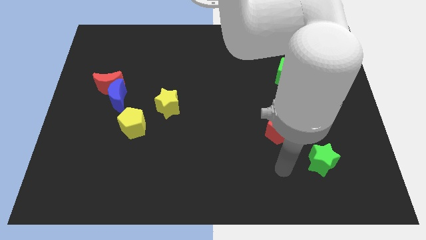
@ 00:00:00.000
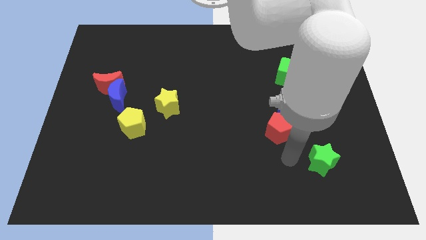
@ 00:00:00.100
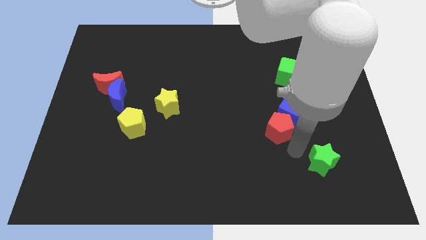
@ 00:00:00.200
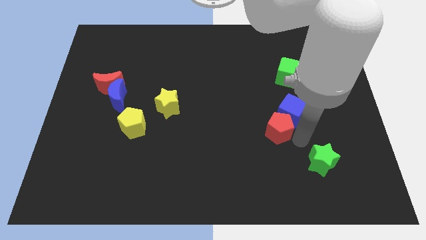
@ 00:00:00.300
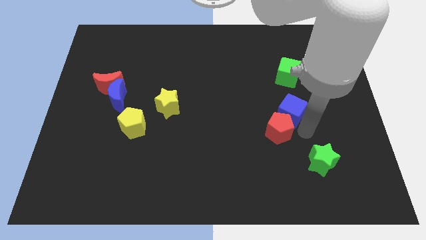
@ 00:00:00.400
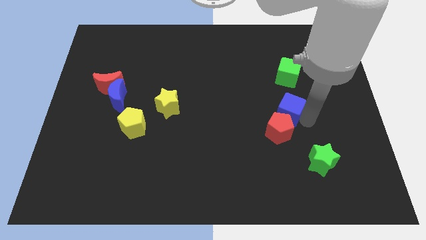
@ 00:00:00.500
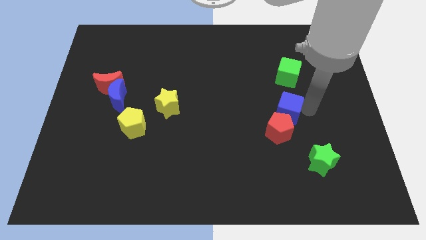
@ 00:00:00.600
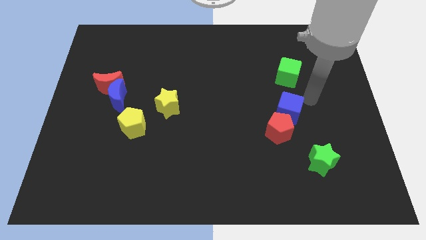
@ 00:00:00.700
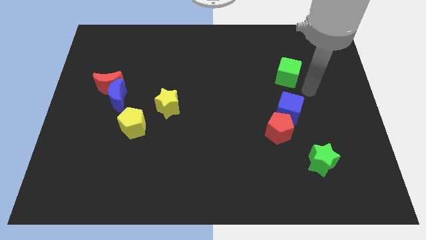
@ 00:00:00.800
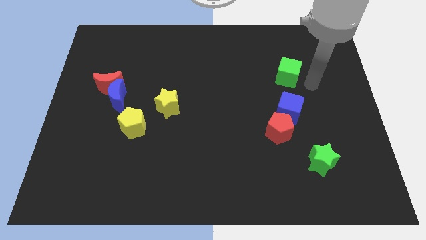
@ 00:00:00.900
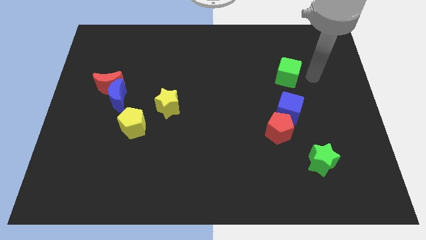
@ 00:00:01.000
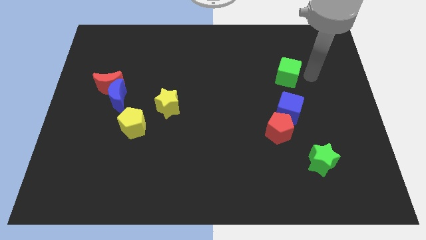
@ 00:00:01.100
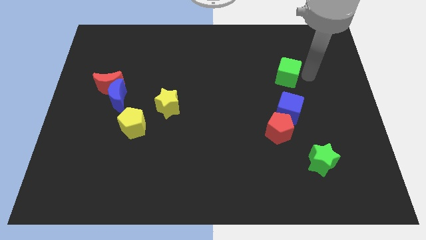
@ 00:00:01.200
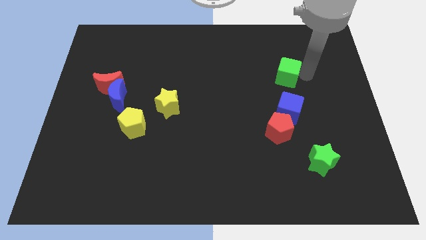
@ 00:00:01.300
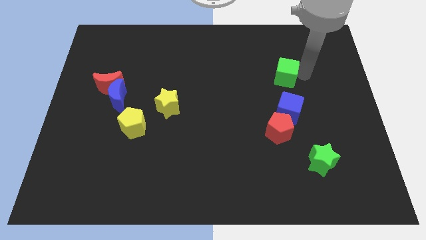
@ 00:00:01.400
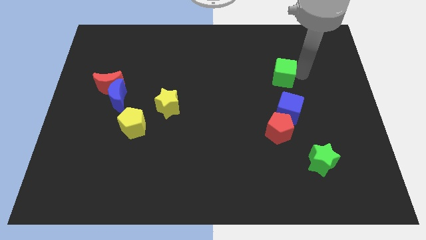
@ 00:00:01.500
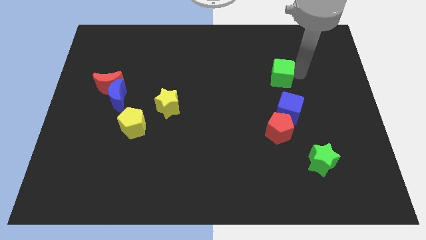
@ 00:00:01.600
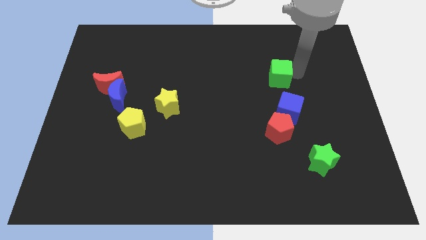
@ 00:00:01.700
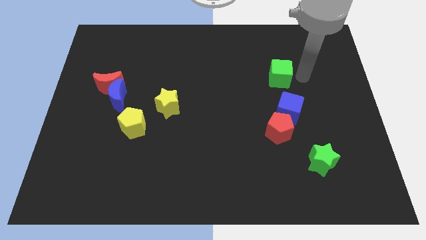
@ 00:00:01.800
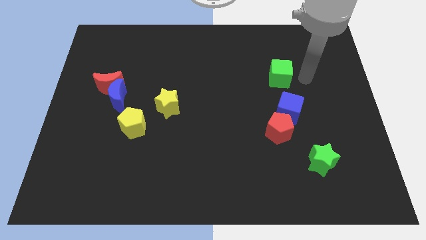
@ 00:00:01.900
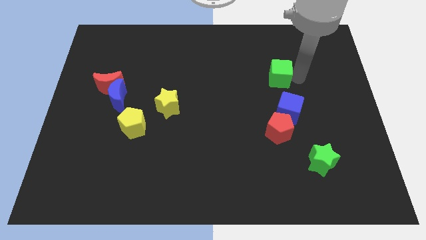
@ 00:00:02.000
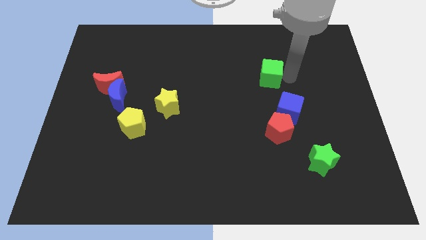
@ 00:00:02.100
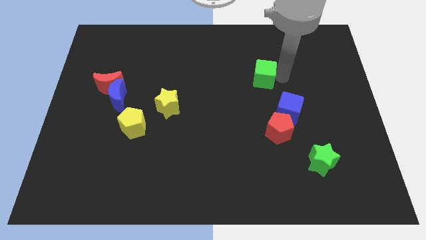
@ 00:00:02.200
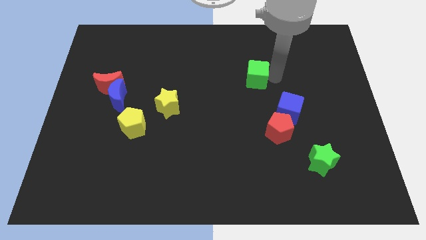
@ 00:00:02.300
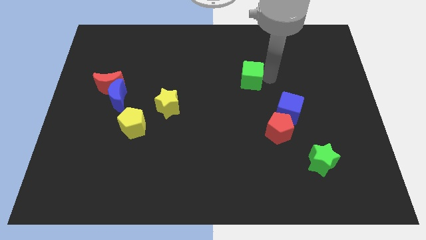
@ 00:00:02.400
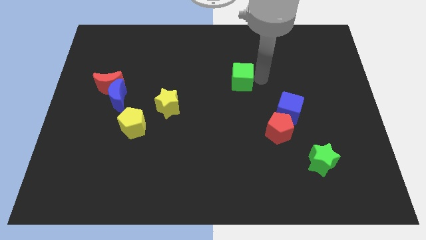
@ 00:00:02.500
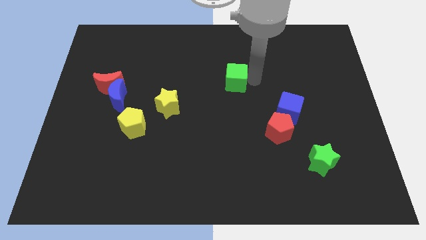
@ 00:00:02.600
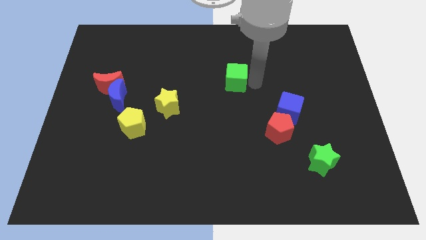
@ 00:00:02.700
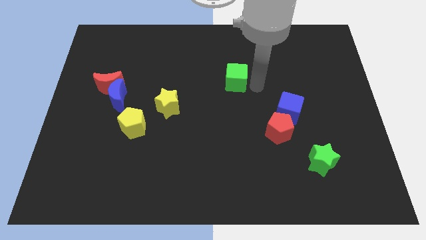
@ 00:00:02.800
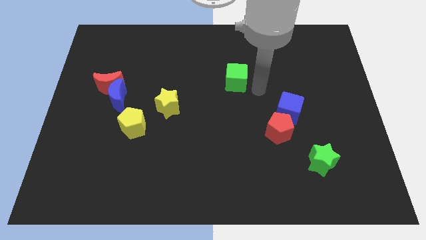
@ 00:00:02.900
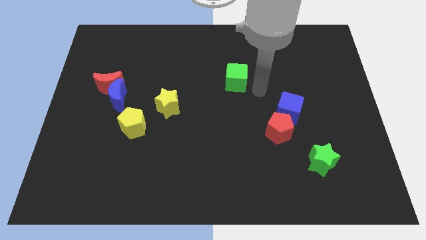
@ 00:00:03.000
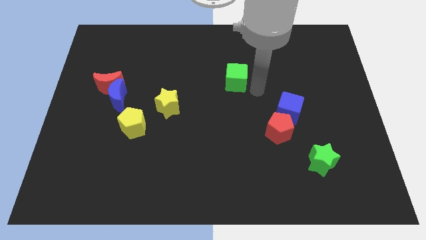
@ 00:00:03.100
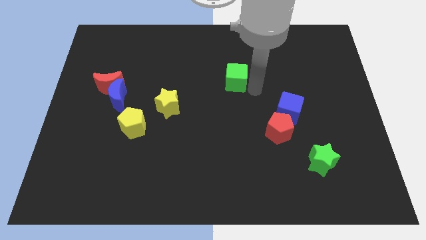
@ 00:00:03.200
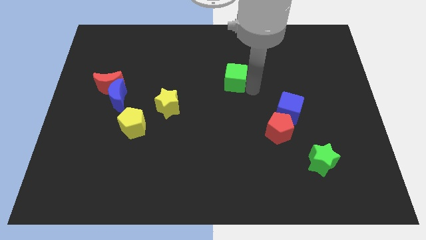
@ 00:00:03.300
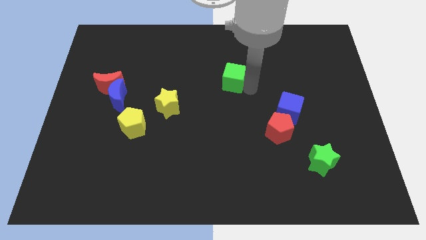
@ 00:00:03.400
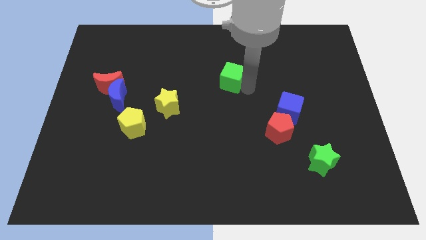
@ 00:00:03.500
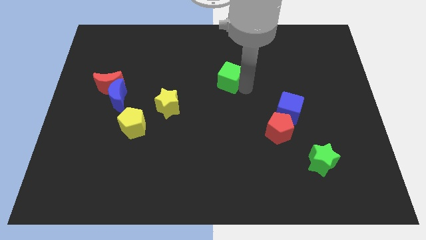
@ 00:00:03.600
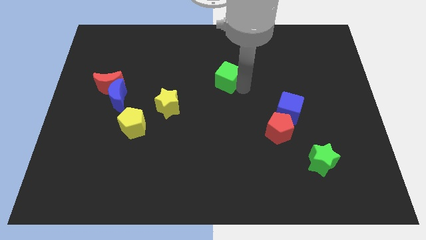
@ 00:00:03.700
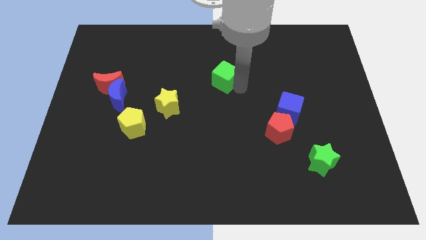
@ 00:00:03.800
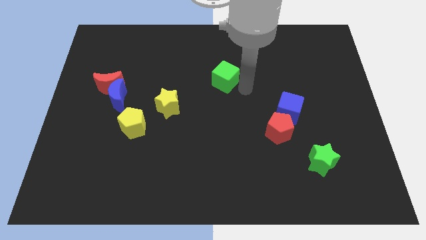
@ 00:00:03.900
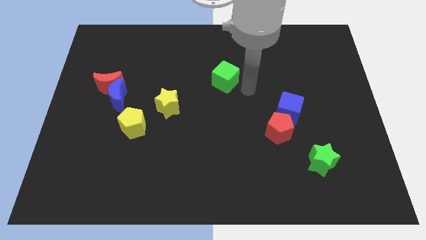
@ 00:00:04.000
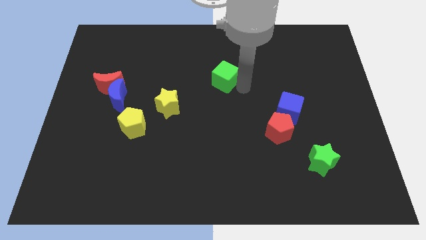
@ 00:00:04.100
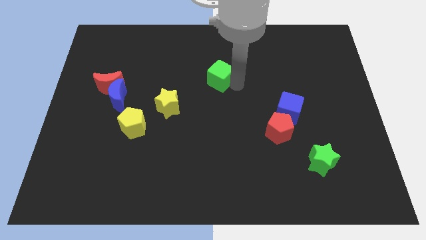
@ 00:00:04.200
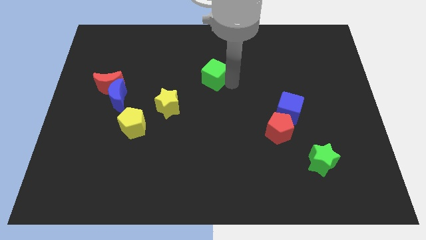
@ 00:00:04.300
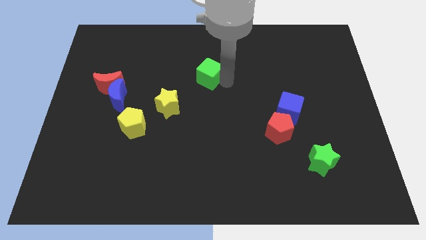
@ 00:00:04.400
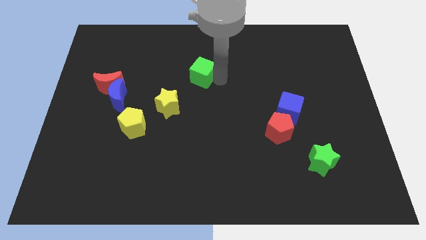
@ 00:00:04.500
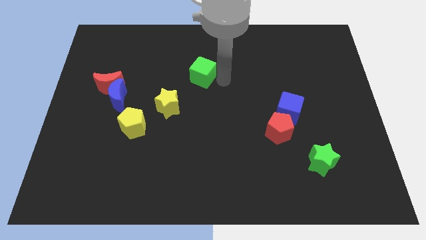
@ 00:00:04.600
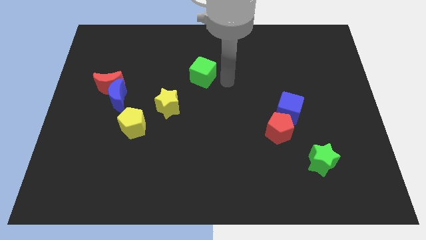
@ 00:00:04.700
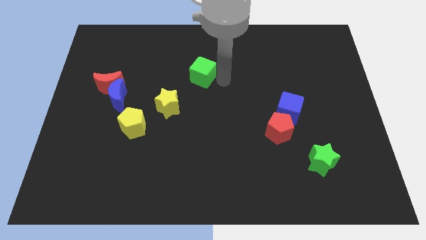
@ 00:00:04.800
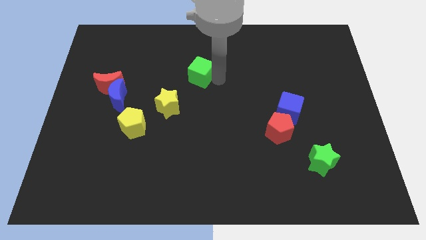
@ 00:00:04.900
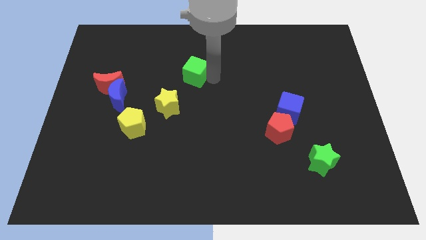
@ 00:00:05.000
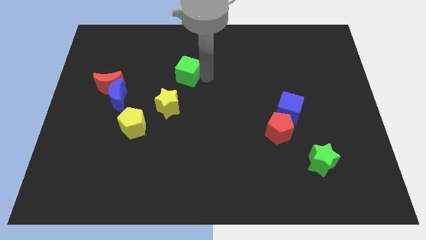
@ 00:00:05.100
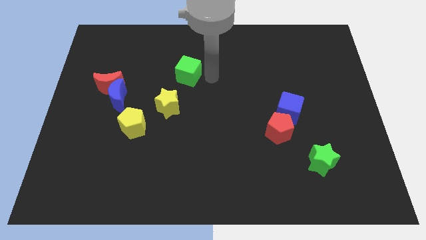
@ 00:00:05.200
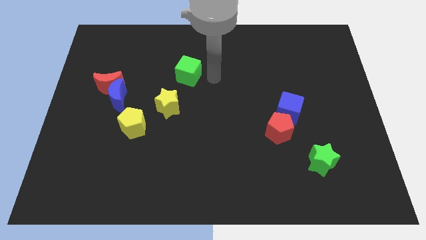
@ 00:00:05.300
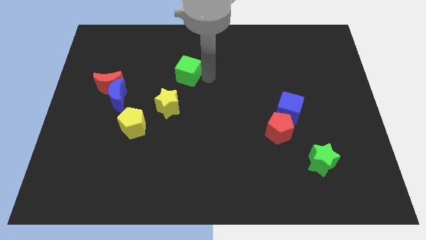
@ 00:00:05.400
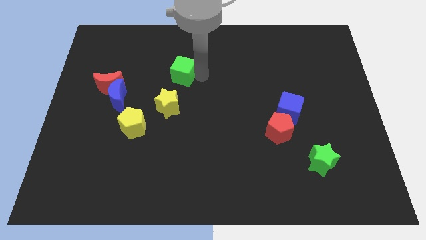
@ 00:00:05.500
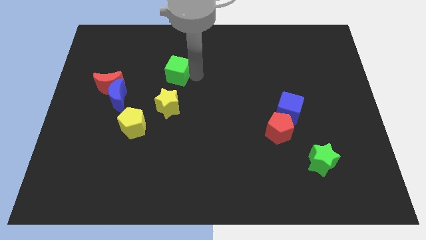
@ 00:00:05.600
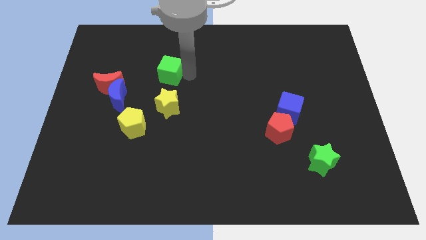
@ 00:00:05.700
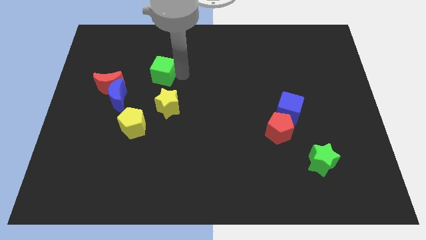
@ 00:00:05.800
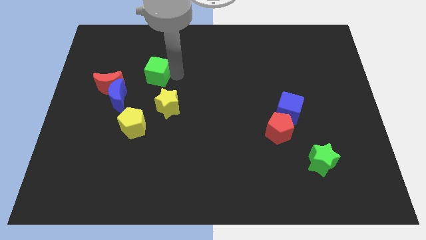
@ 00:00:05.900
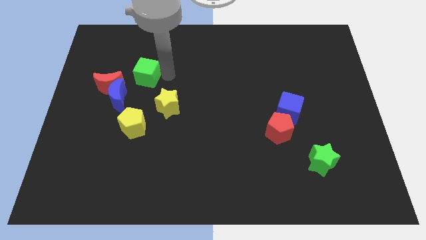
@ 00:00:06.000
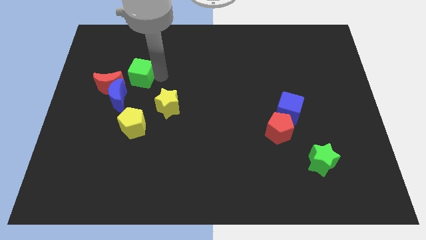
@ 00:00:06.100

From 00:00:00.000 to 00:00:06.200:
push the green cube above the blue moon

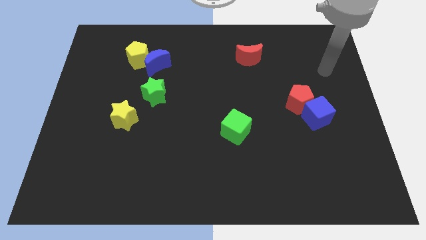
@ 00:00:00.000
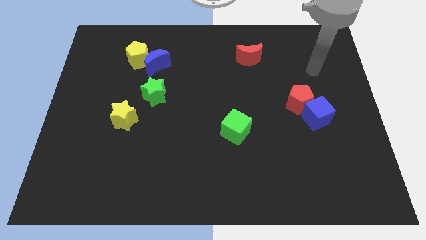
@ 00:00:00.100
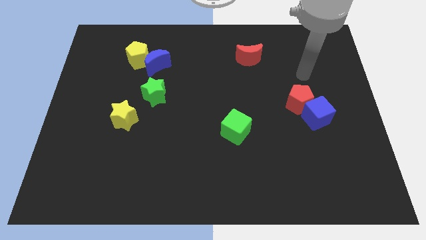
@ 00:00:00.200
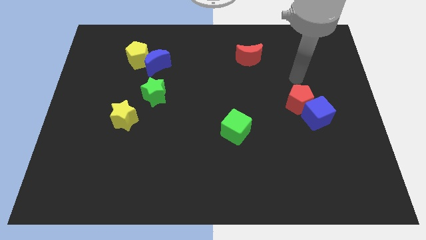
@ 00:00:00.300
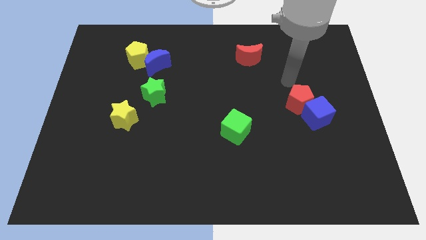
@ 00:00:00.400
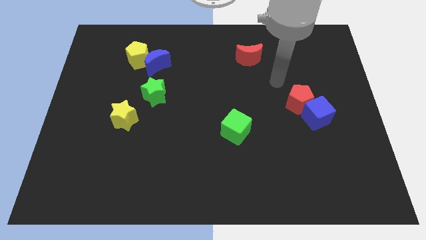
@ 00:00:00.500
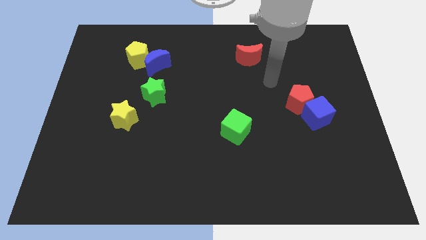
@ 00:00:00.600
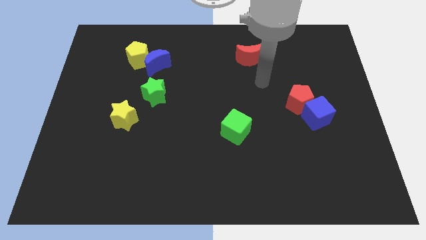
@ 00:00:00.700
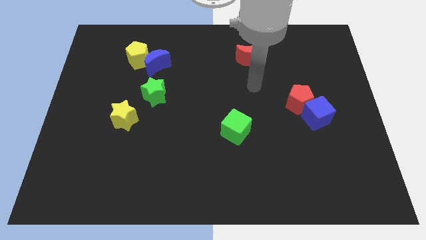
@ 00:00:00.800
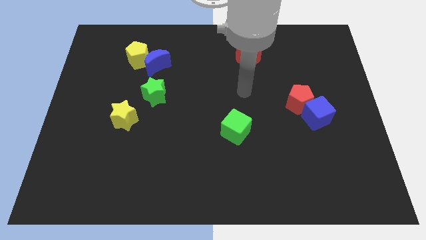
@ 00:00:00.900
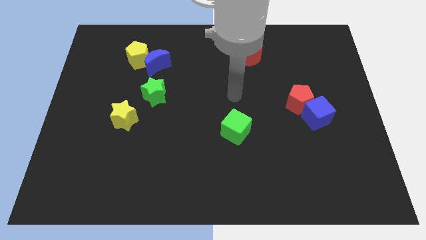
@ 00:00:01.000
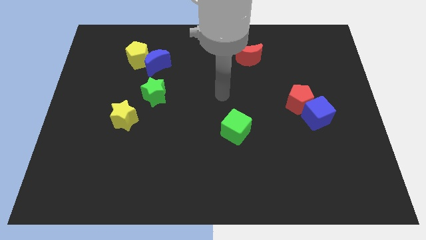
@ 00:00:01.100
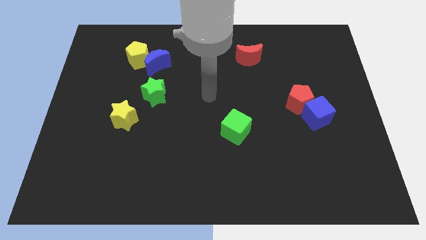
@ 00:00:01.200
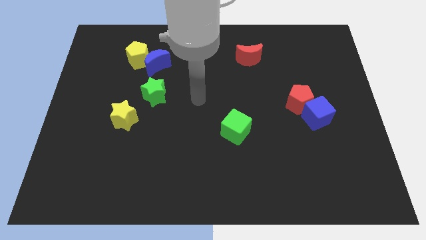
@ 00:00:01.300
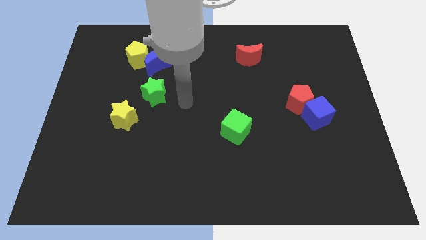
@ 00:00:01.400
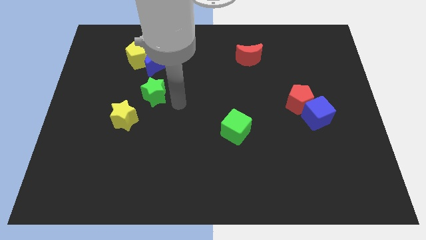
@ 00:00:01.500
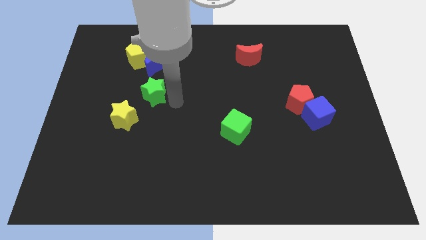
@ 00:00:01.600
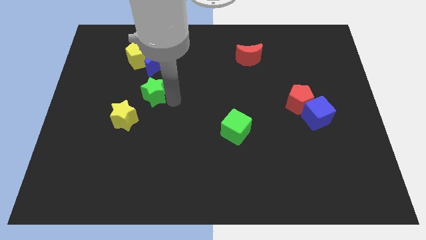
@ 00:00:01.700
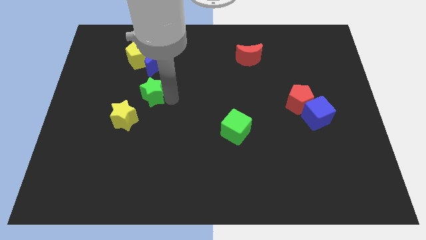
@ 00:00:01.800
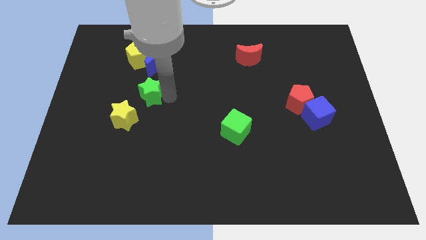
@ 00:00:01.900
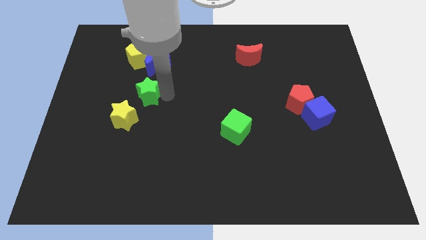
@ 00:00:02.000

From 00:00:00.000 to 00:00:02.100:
slide the green star to the top of the yellow star
